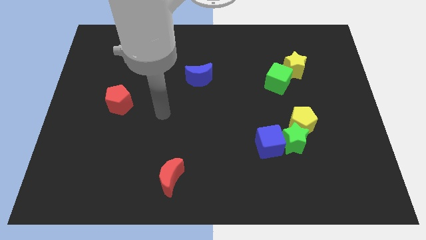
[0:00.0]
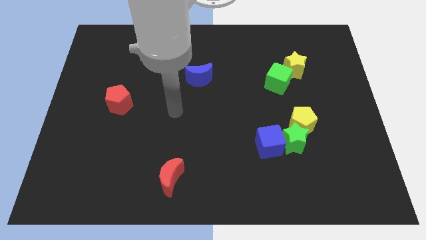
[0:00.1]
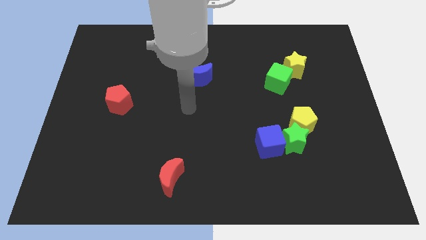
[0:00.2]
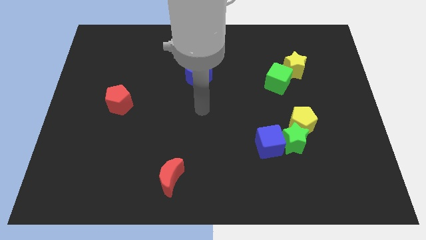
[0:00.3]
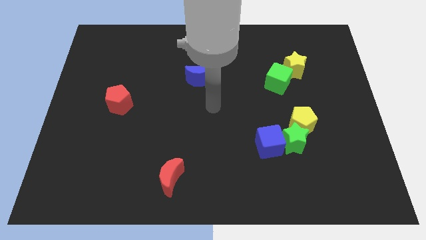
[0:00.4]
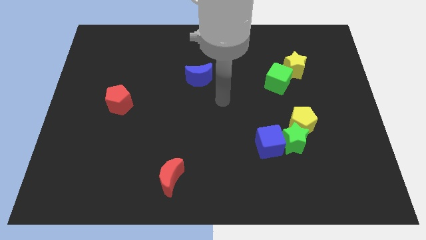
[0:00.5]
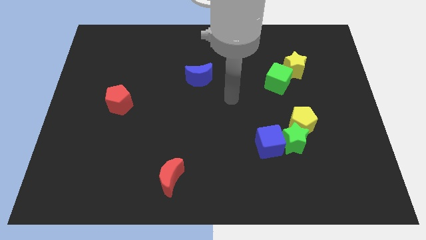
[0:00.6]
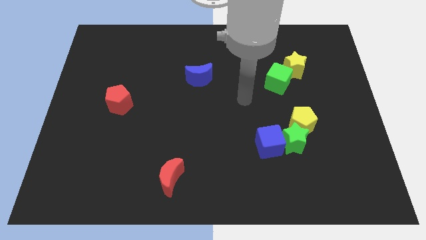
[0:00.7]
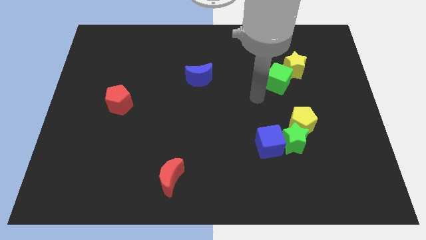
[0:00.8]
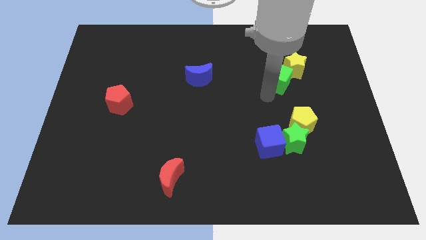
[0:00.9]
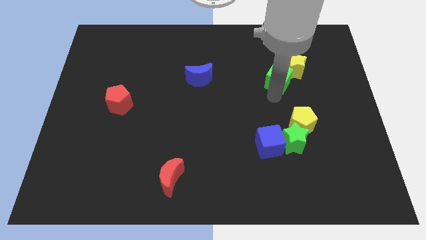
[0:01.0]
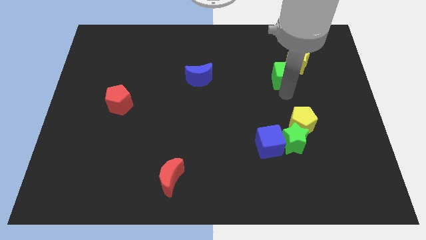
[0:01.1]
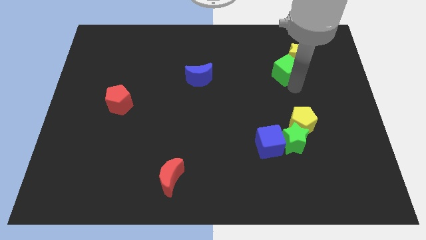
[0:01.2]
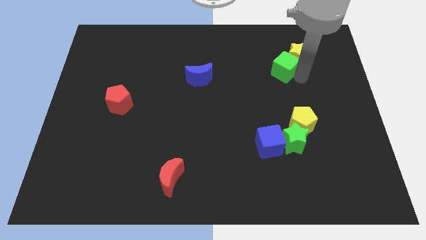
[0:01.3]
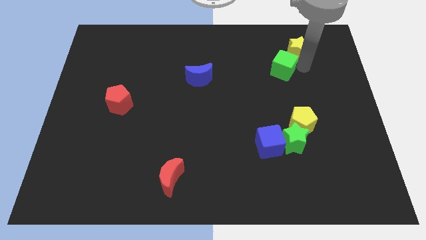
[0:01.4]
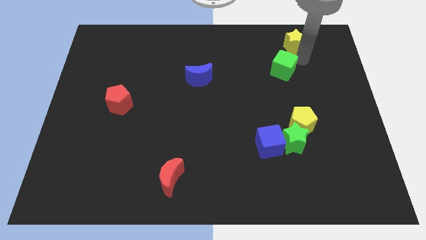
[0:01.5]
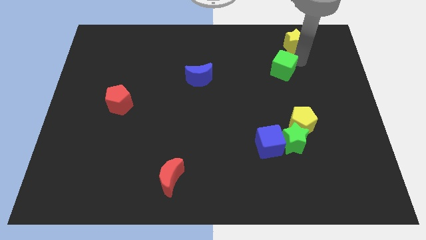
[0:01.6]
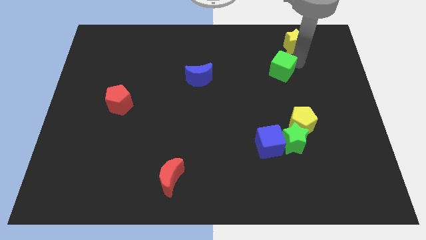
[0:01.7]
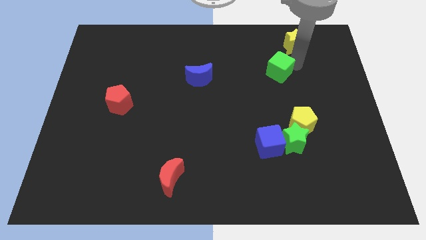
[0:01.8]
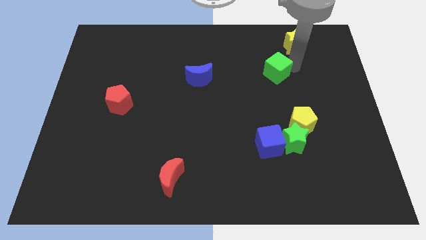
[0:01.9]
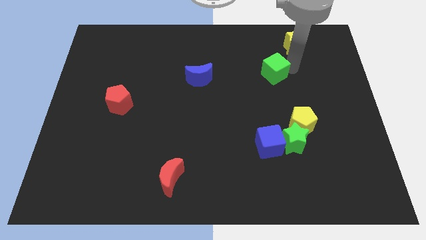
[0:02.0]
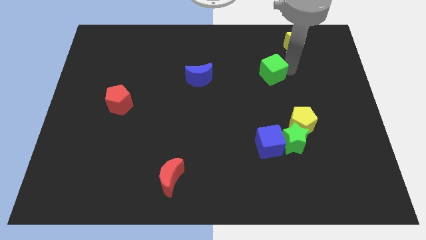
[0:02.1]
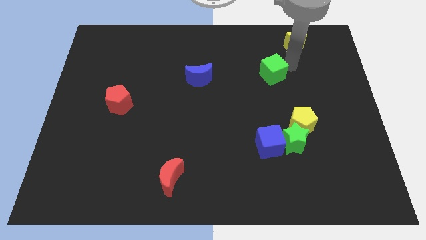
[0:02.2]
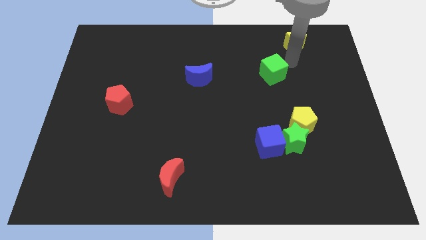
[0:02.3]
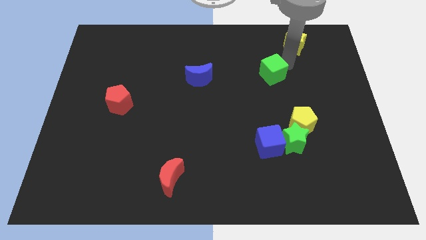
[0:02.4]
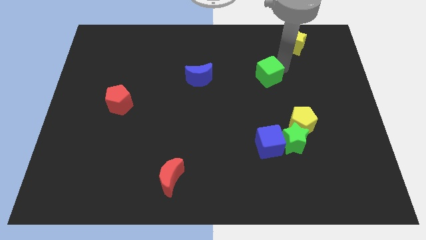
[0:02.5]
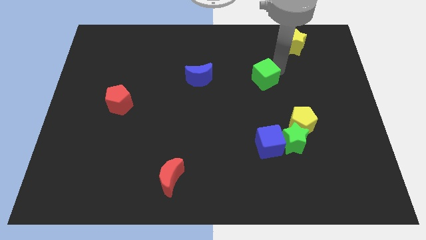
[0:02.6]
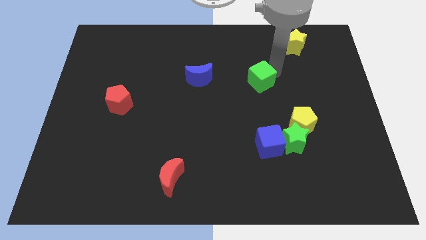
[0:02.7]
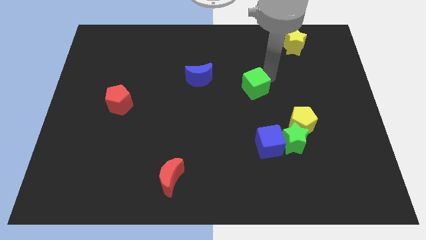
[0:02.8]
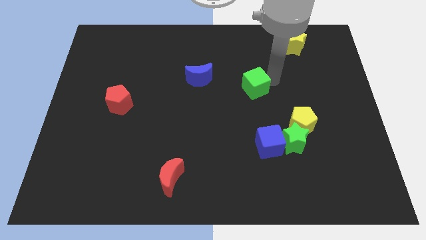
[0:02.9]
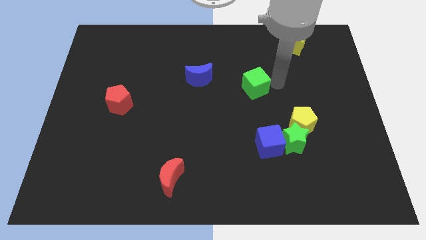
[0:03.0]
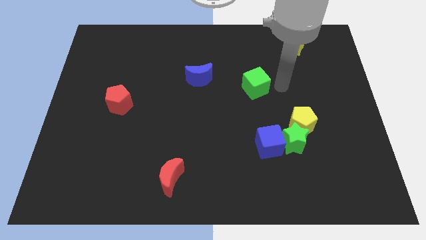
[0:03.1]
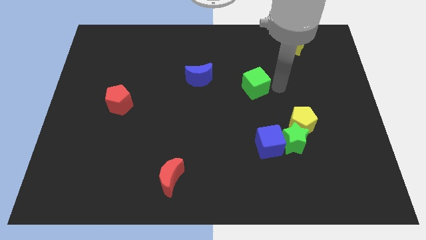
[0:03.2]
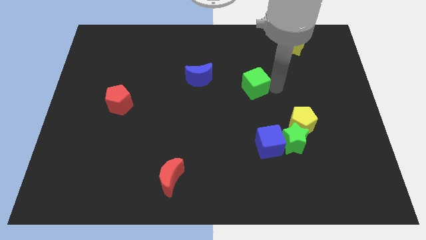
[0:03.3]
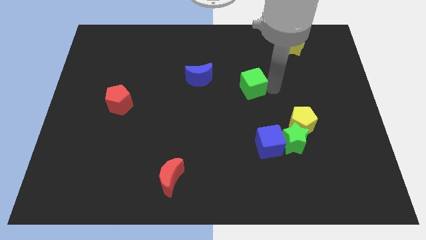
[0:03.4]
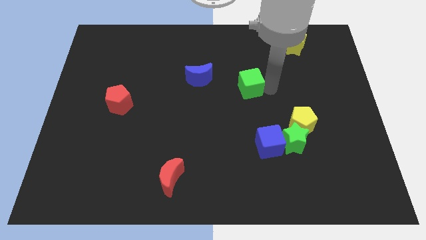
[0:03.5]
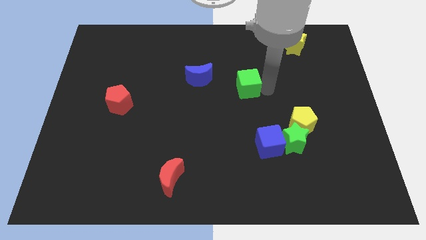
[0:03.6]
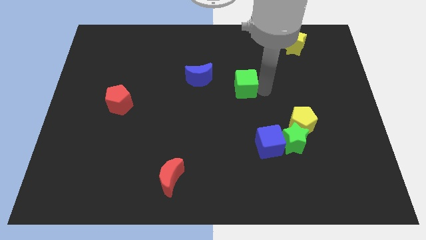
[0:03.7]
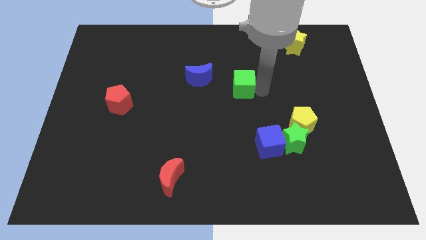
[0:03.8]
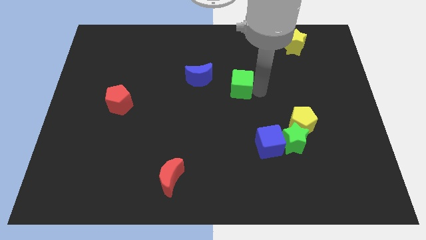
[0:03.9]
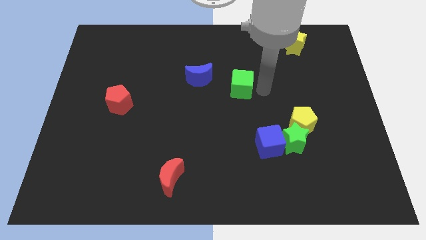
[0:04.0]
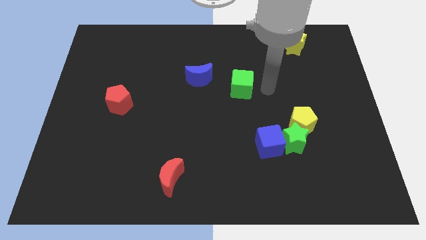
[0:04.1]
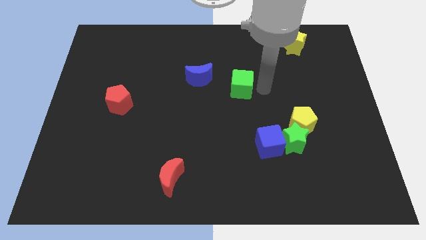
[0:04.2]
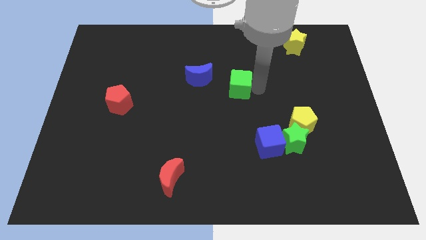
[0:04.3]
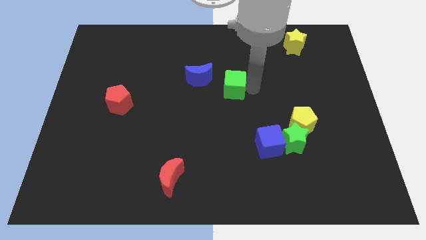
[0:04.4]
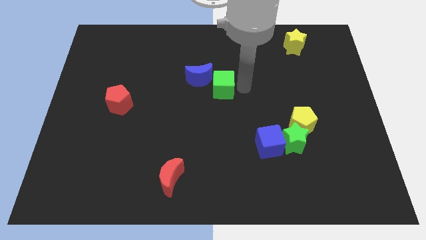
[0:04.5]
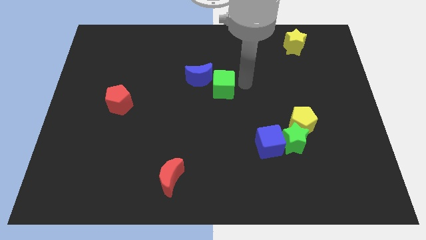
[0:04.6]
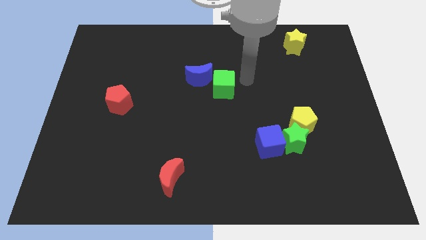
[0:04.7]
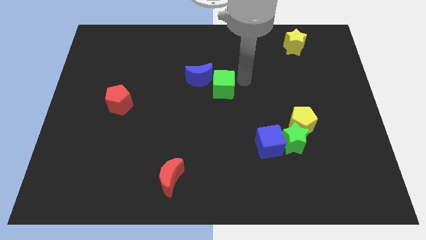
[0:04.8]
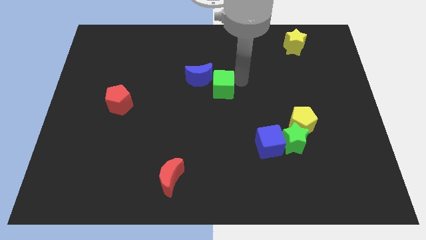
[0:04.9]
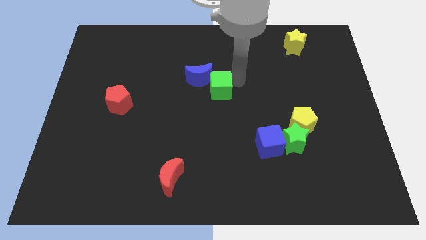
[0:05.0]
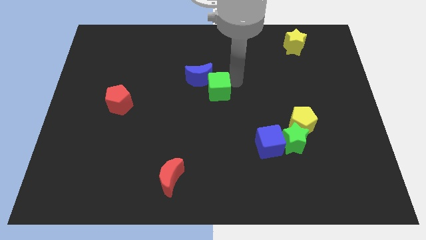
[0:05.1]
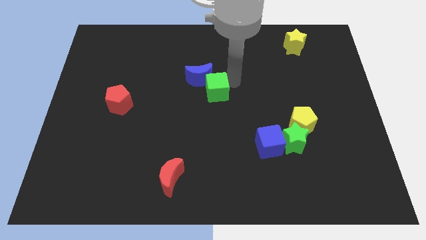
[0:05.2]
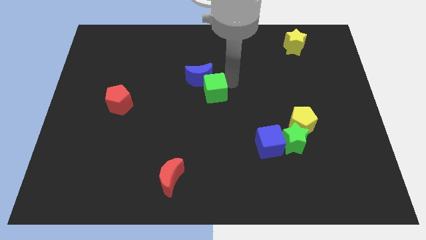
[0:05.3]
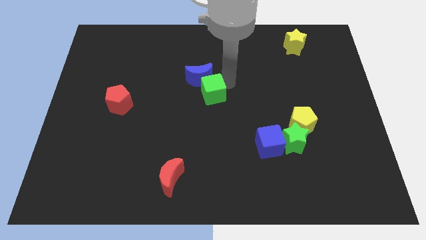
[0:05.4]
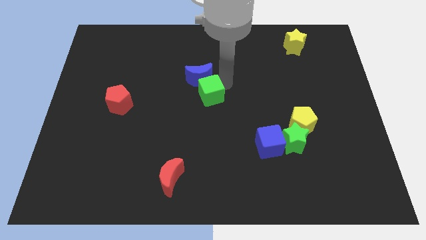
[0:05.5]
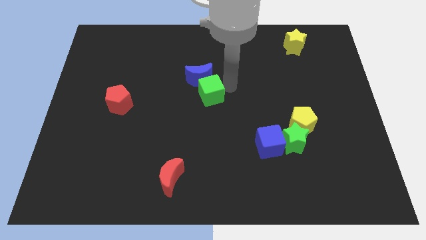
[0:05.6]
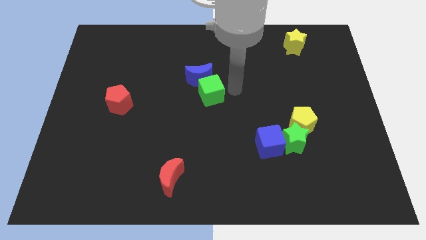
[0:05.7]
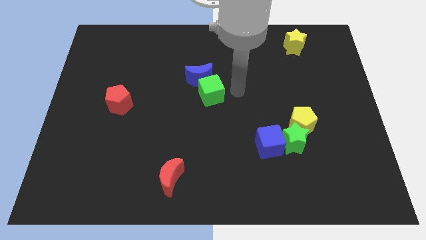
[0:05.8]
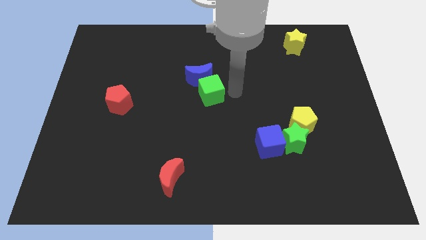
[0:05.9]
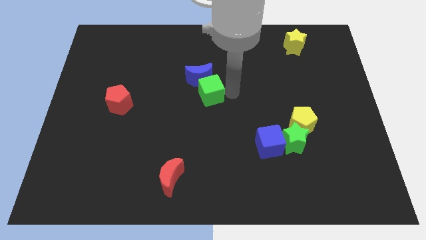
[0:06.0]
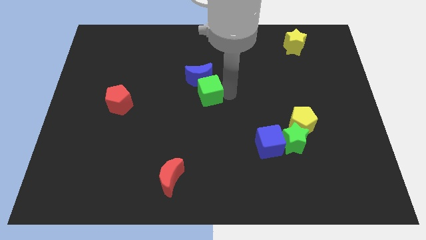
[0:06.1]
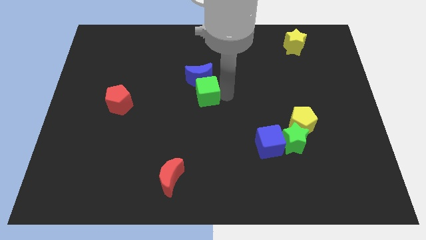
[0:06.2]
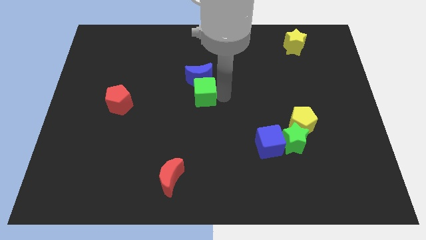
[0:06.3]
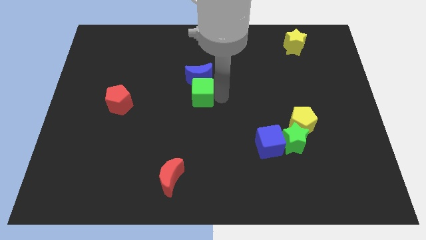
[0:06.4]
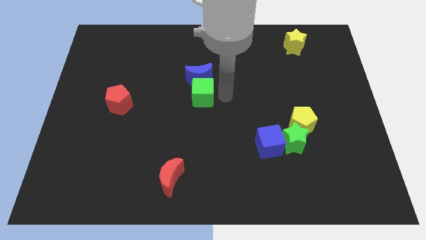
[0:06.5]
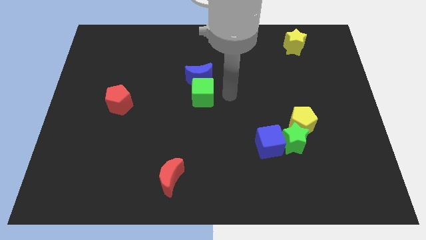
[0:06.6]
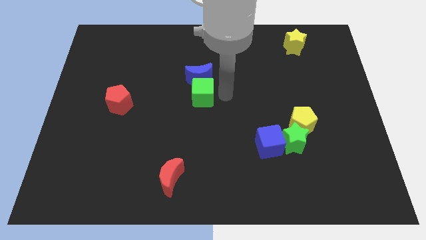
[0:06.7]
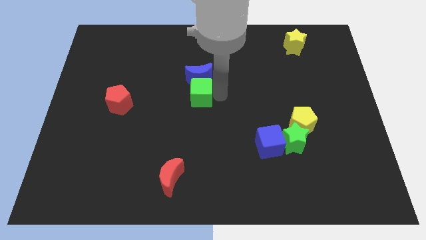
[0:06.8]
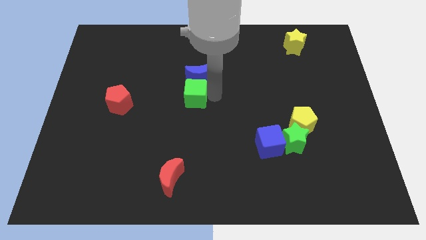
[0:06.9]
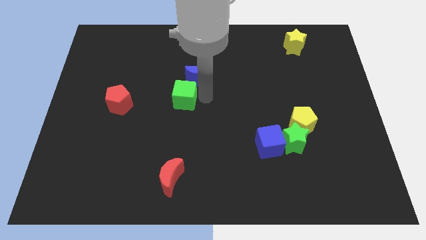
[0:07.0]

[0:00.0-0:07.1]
push the green cube left

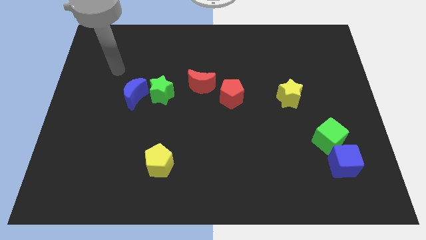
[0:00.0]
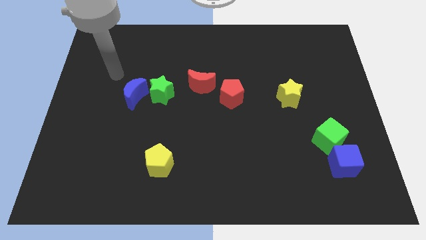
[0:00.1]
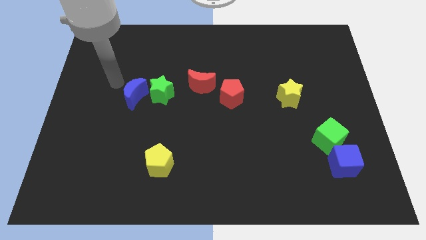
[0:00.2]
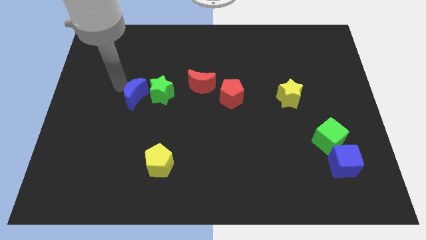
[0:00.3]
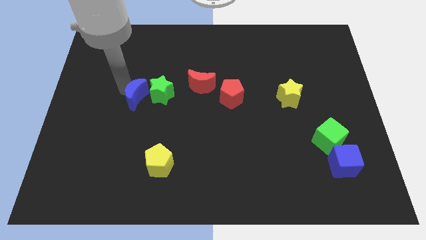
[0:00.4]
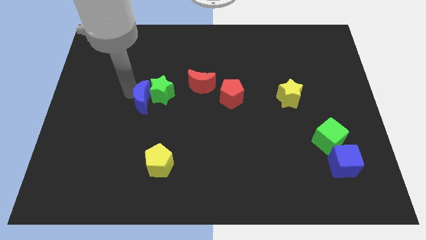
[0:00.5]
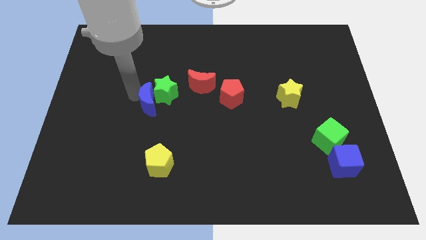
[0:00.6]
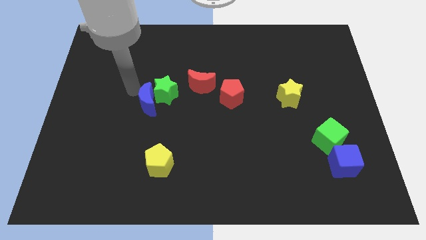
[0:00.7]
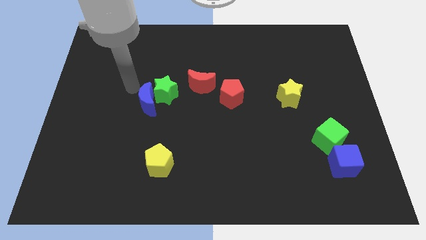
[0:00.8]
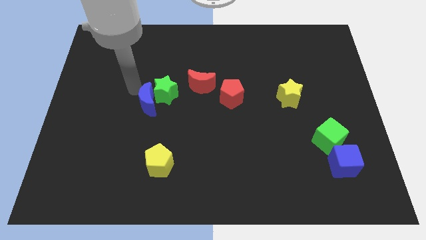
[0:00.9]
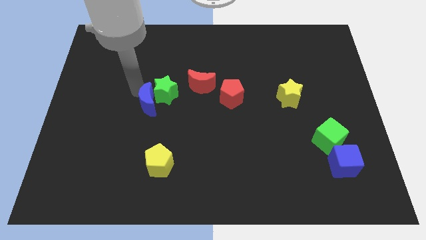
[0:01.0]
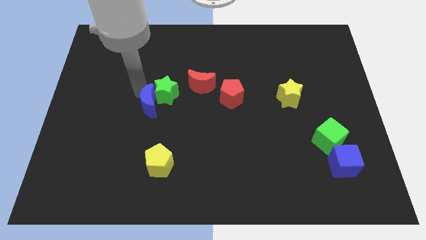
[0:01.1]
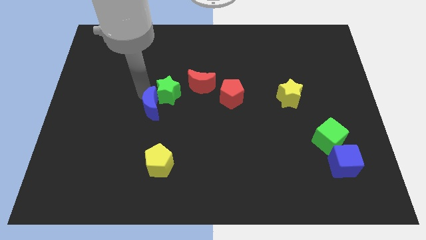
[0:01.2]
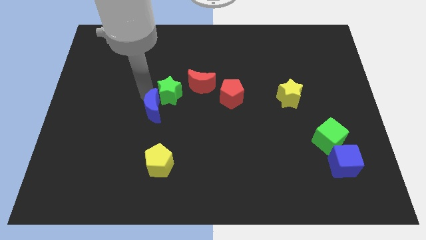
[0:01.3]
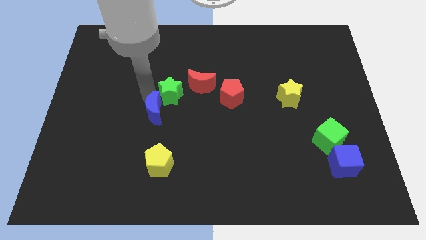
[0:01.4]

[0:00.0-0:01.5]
slightly push the blue moon down and then right
